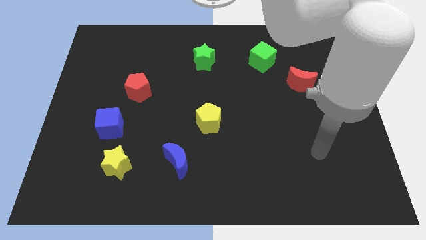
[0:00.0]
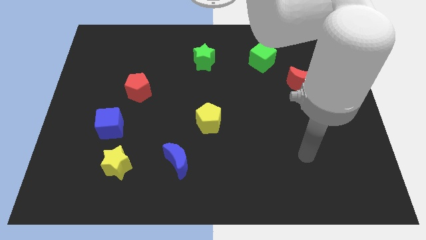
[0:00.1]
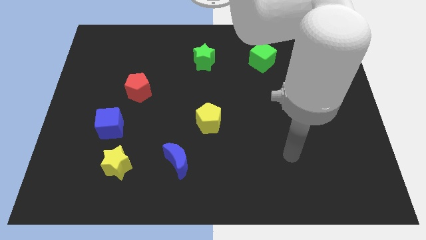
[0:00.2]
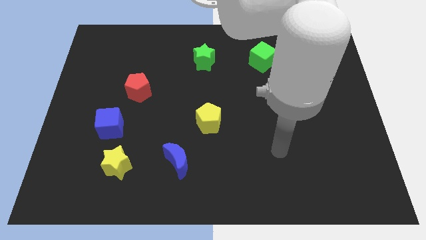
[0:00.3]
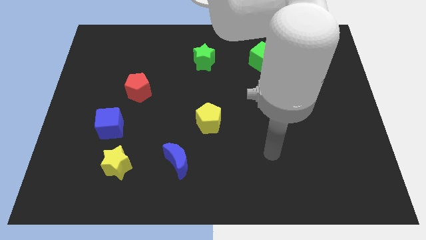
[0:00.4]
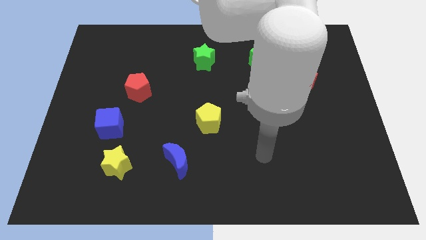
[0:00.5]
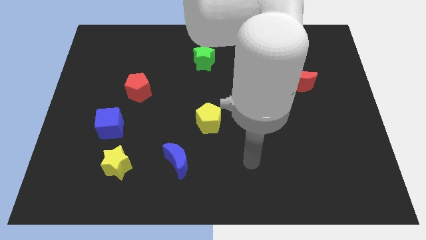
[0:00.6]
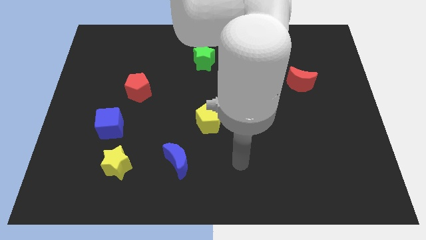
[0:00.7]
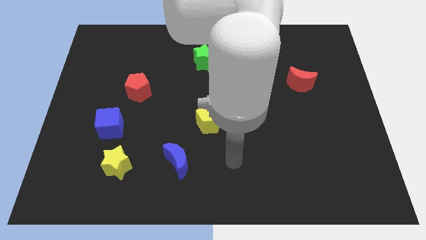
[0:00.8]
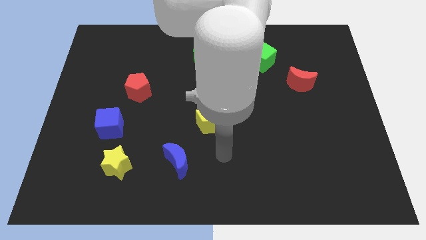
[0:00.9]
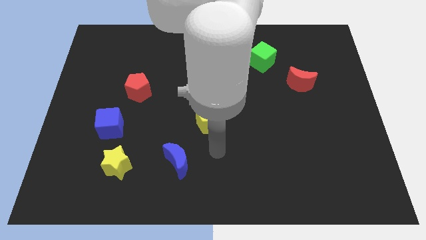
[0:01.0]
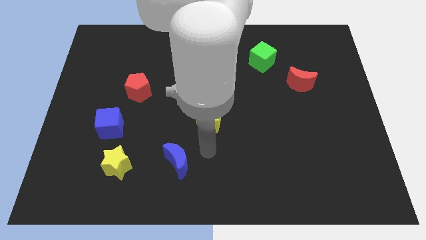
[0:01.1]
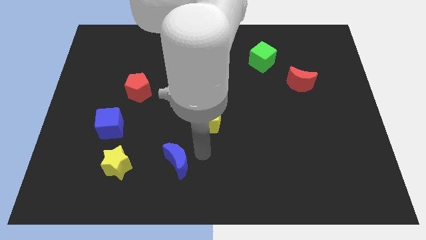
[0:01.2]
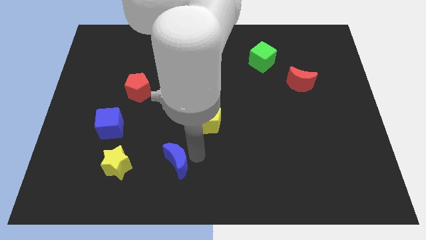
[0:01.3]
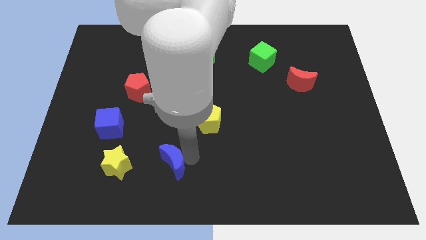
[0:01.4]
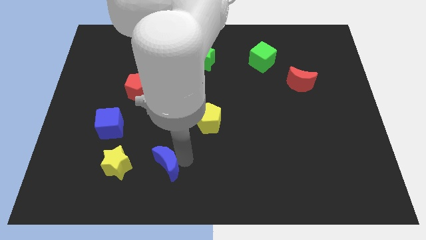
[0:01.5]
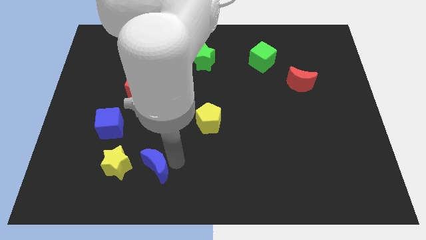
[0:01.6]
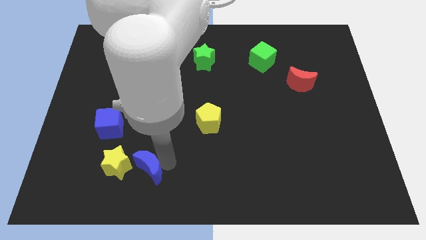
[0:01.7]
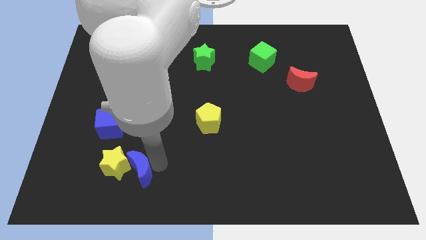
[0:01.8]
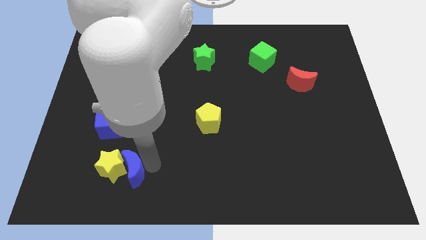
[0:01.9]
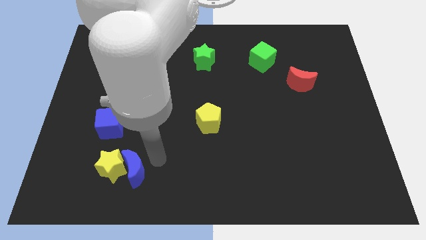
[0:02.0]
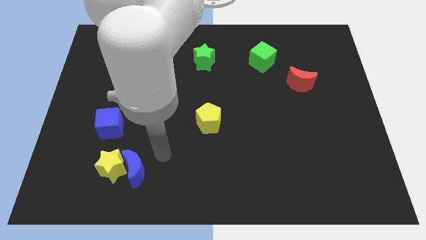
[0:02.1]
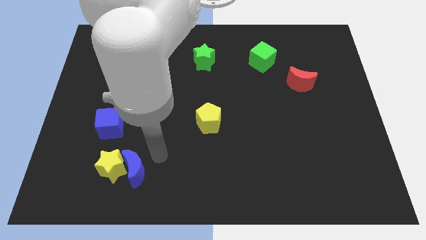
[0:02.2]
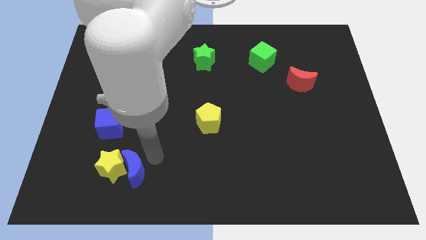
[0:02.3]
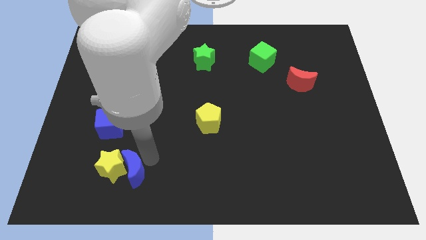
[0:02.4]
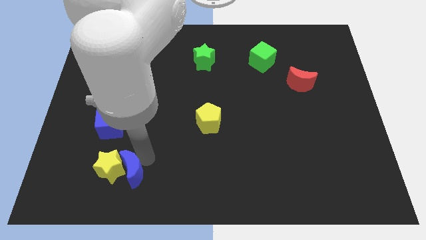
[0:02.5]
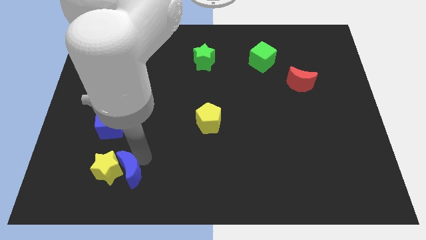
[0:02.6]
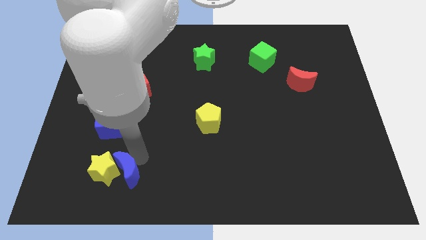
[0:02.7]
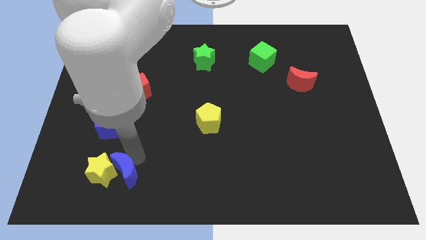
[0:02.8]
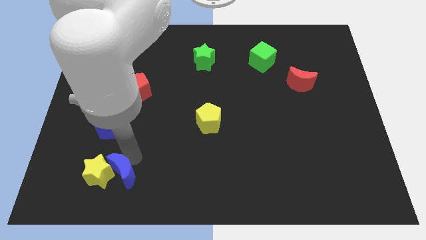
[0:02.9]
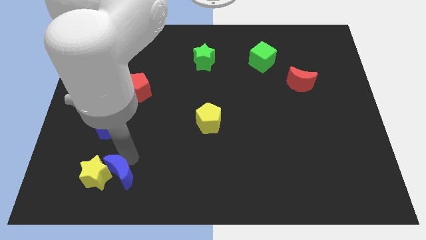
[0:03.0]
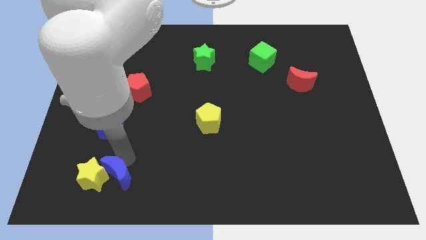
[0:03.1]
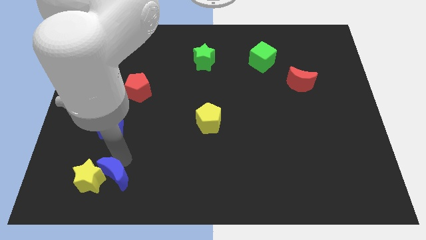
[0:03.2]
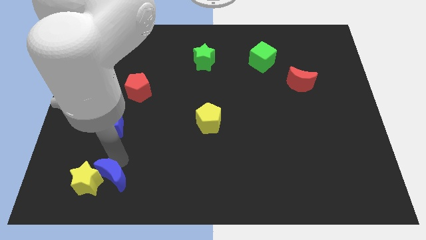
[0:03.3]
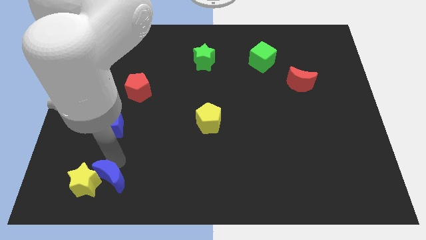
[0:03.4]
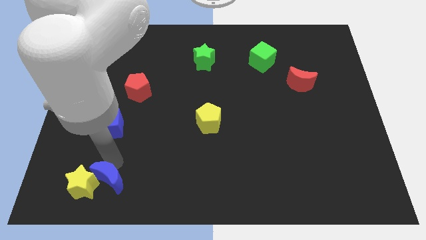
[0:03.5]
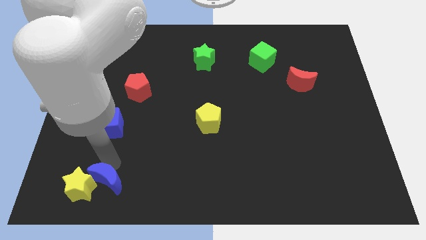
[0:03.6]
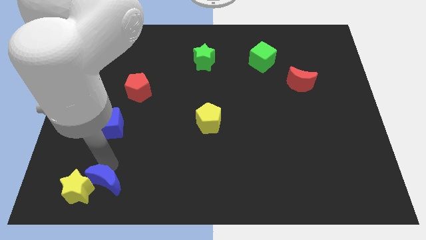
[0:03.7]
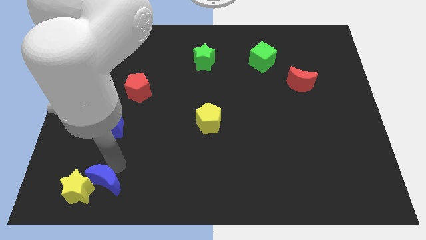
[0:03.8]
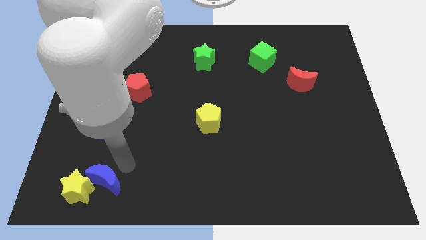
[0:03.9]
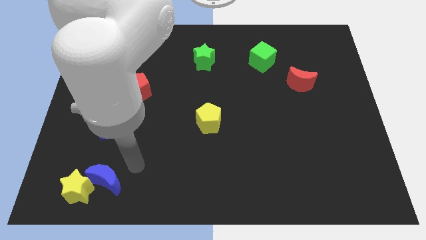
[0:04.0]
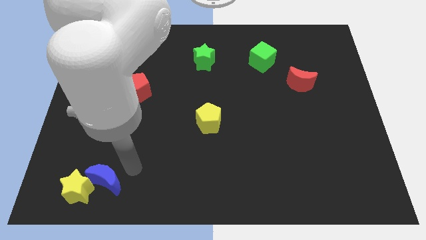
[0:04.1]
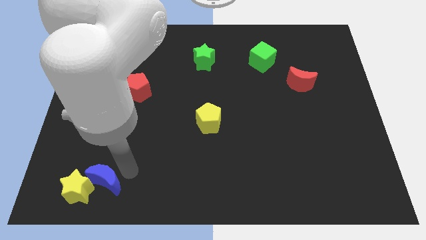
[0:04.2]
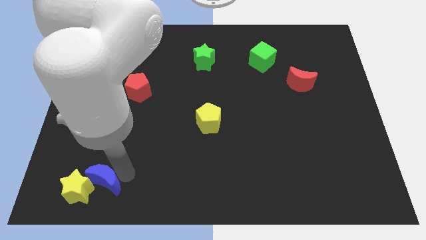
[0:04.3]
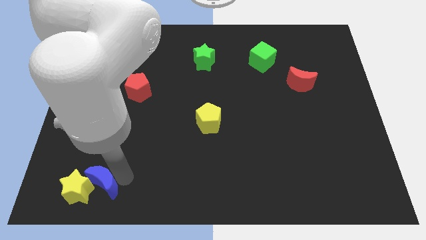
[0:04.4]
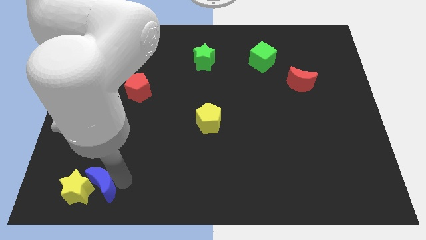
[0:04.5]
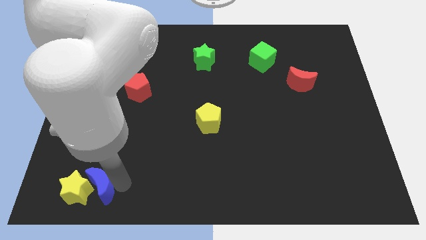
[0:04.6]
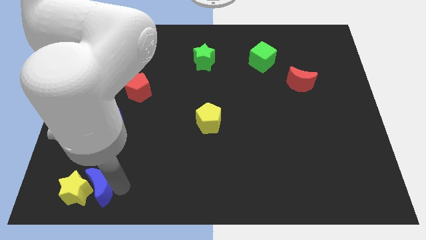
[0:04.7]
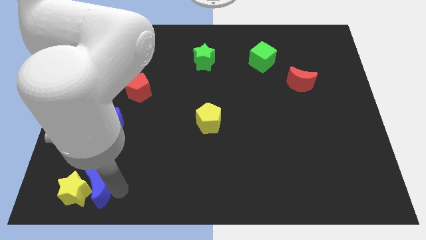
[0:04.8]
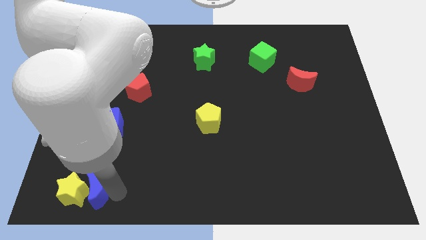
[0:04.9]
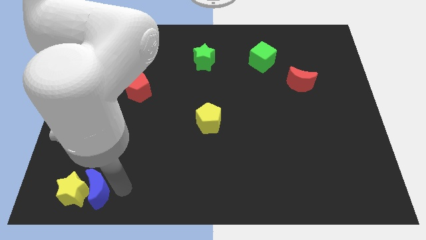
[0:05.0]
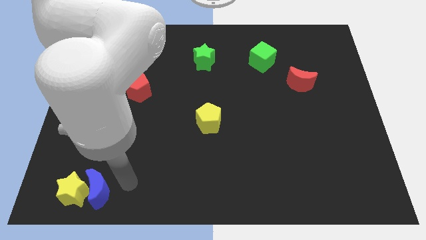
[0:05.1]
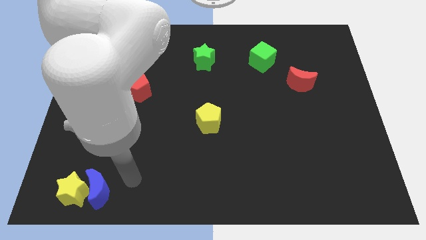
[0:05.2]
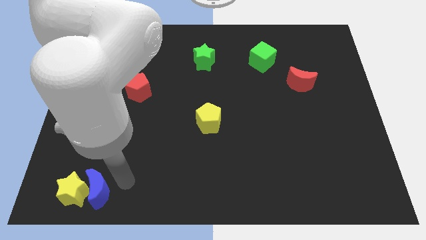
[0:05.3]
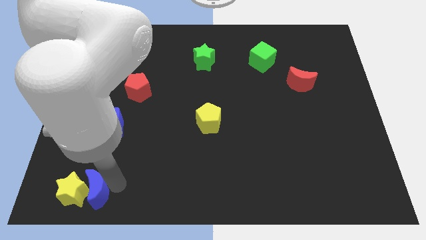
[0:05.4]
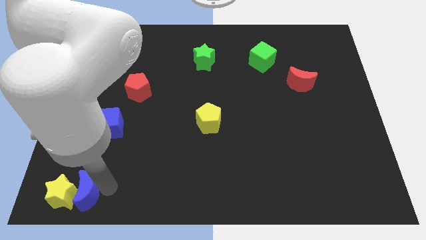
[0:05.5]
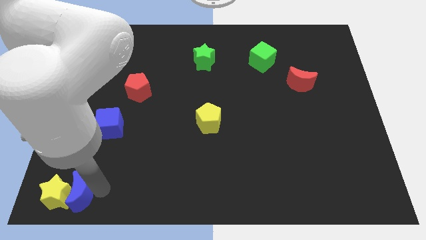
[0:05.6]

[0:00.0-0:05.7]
put the blue moon to the lower left corner
